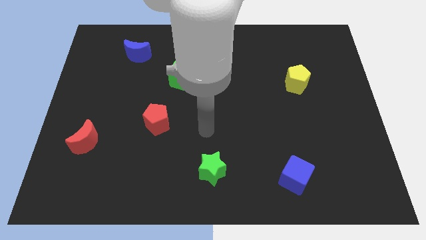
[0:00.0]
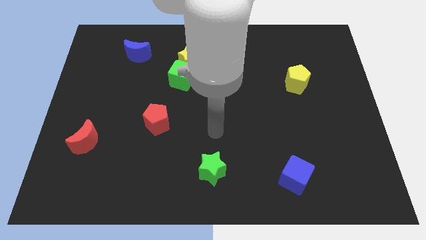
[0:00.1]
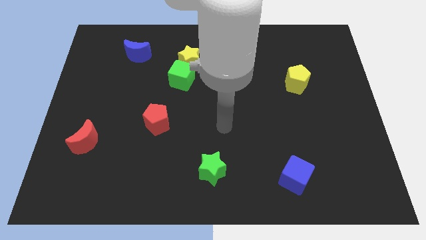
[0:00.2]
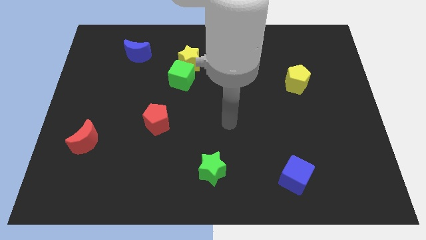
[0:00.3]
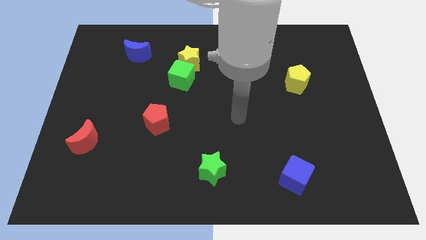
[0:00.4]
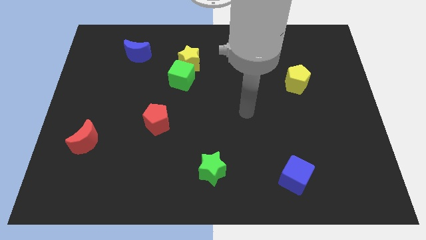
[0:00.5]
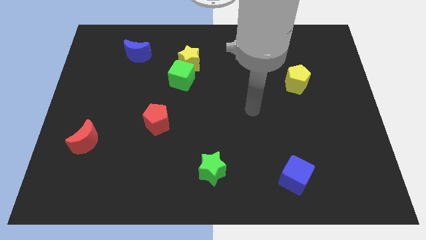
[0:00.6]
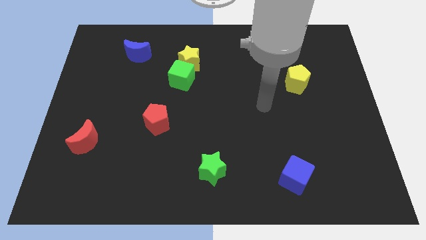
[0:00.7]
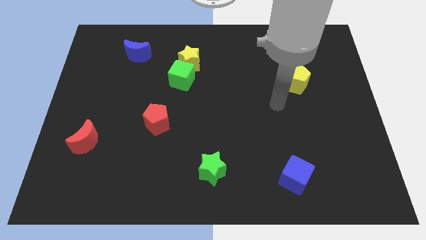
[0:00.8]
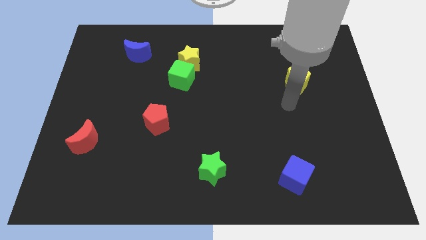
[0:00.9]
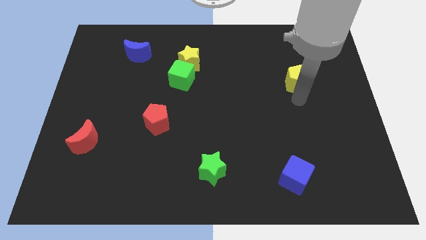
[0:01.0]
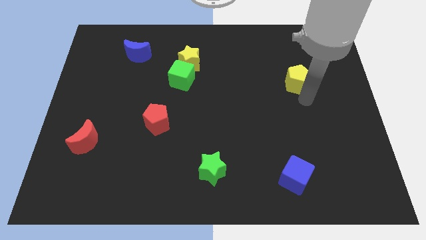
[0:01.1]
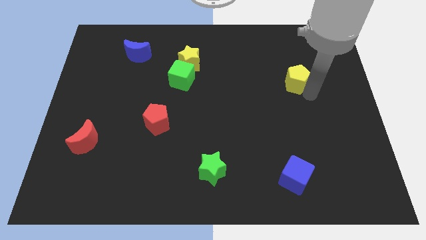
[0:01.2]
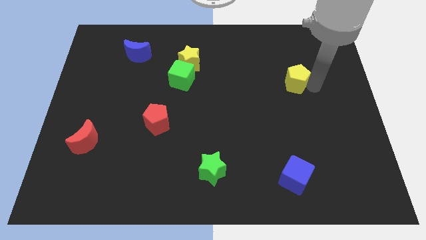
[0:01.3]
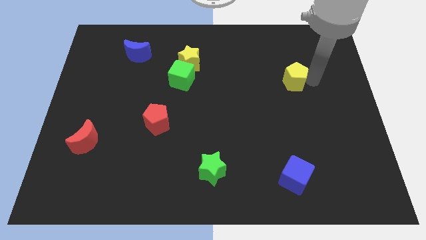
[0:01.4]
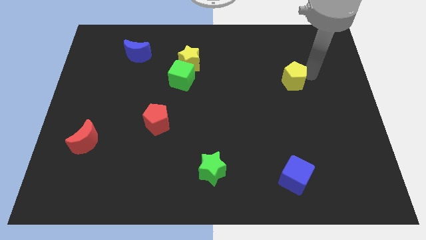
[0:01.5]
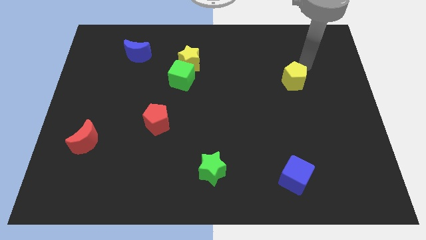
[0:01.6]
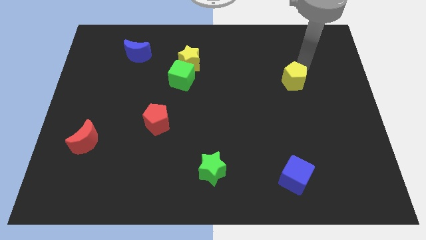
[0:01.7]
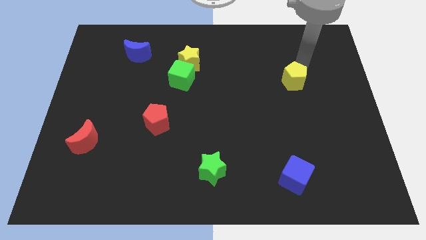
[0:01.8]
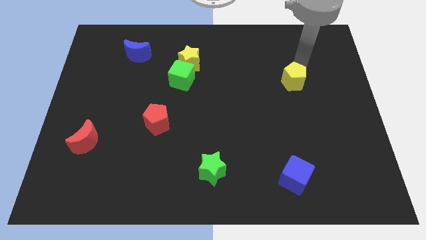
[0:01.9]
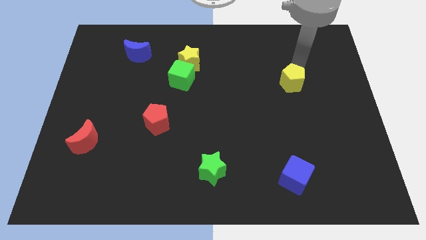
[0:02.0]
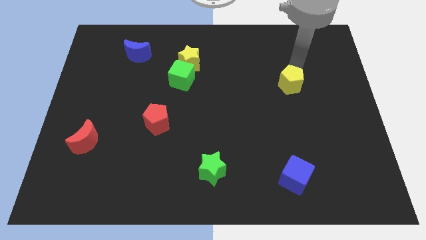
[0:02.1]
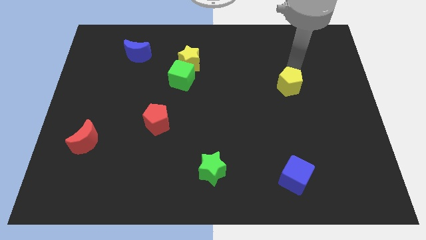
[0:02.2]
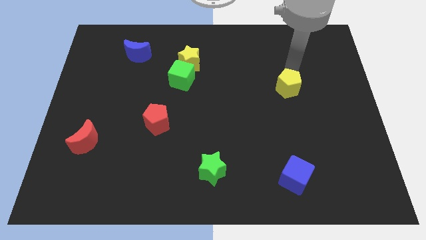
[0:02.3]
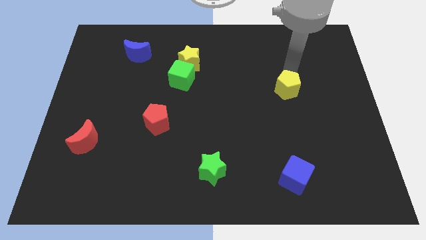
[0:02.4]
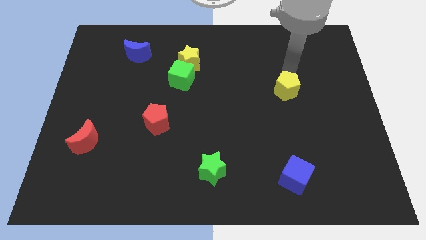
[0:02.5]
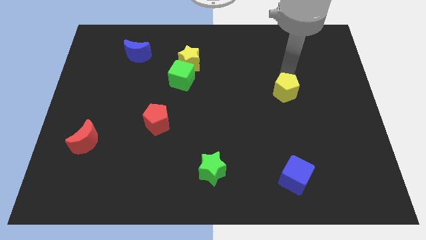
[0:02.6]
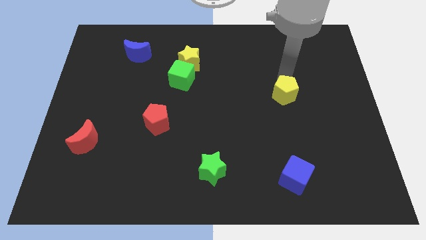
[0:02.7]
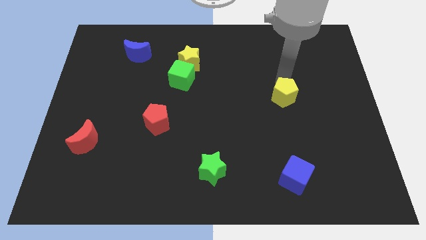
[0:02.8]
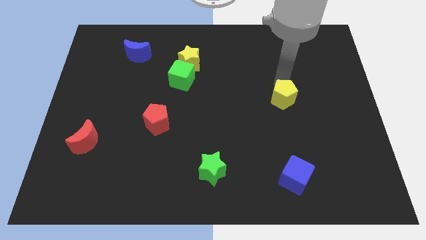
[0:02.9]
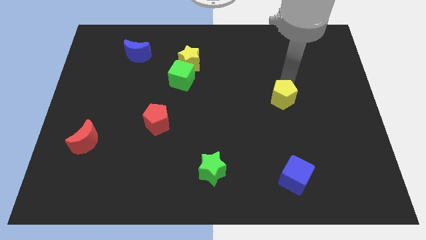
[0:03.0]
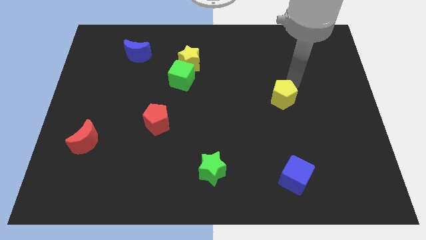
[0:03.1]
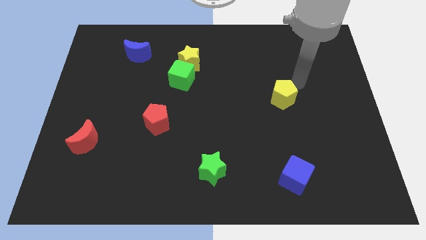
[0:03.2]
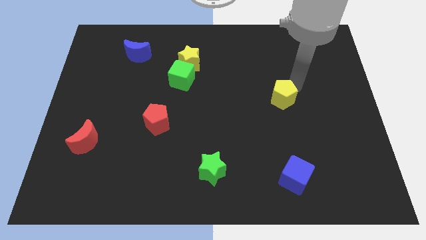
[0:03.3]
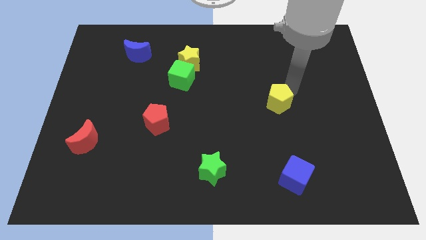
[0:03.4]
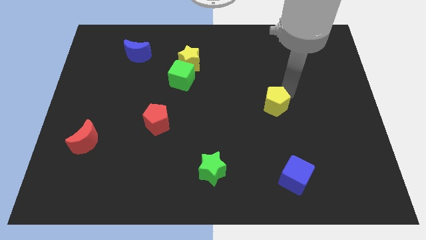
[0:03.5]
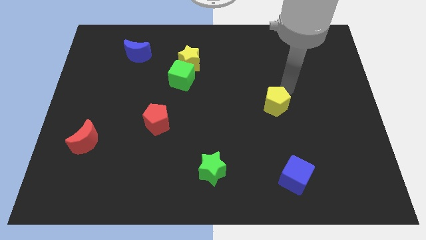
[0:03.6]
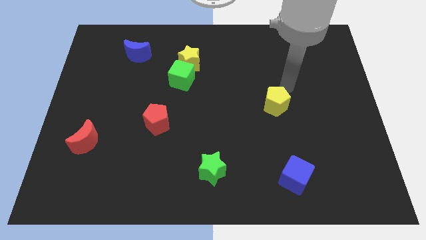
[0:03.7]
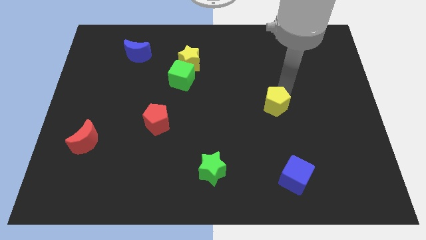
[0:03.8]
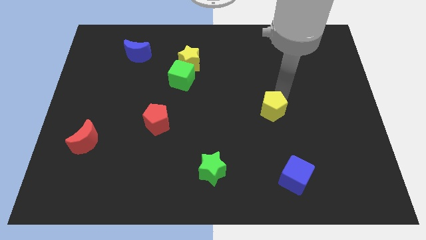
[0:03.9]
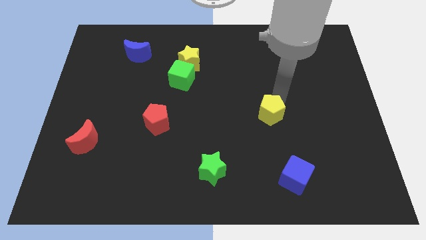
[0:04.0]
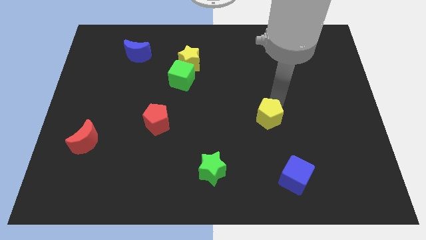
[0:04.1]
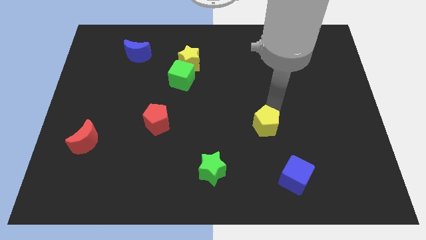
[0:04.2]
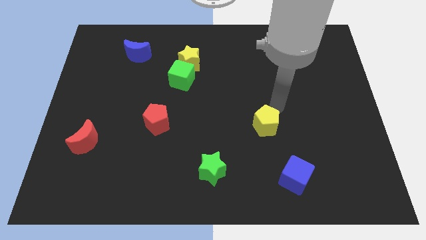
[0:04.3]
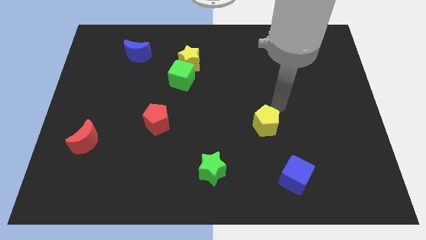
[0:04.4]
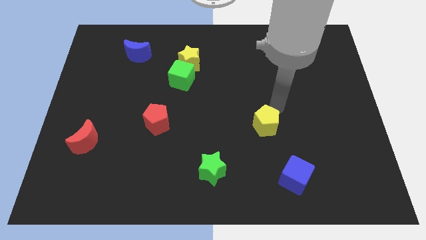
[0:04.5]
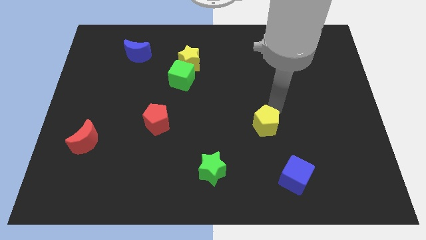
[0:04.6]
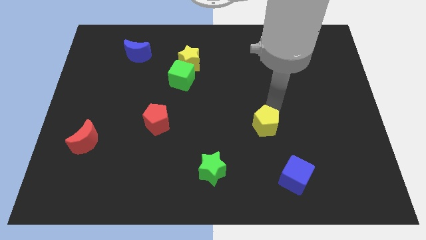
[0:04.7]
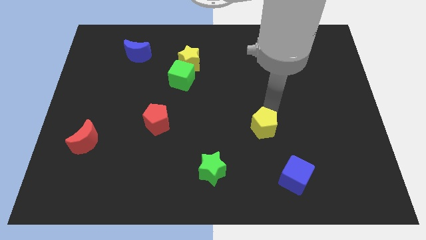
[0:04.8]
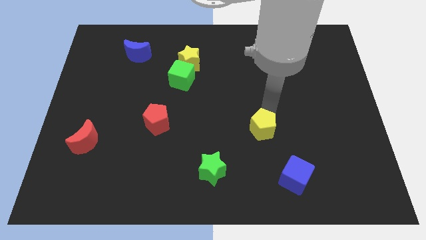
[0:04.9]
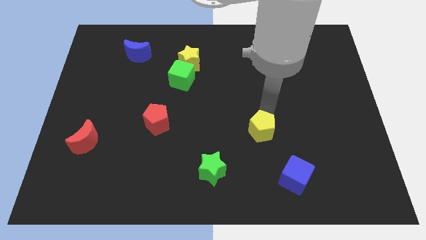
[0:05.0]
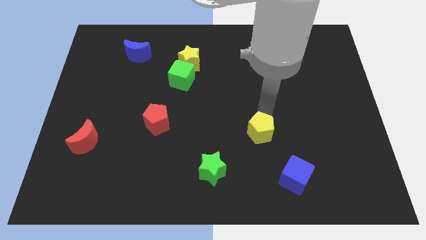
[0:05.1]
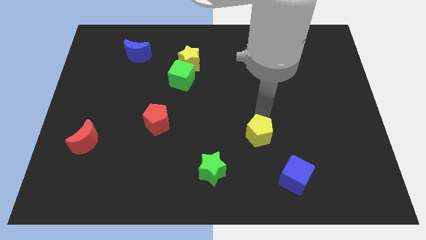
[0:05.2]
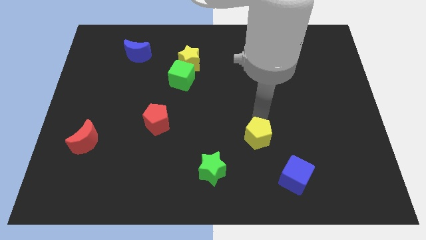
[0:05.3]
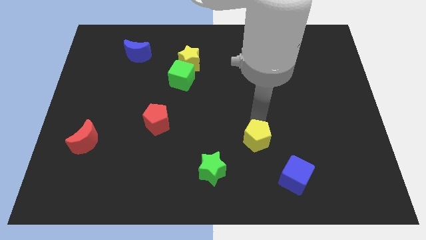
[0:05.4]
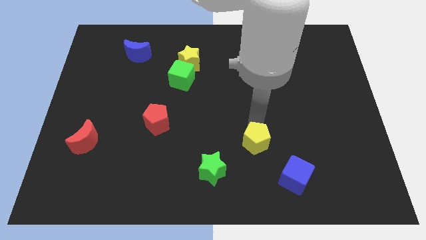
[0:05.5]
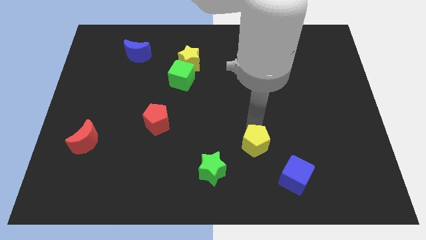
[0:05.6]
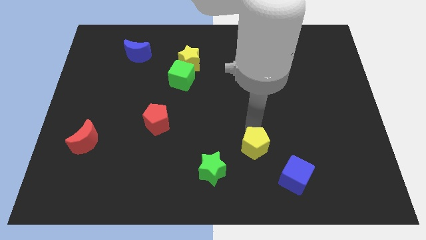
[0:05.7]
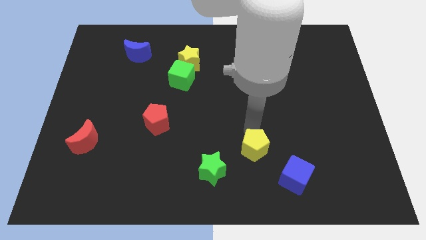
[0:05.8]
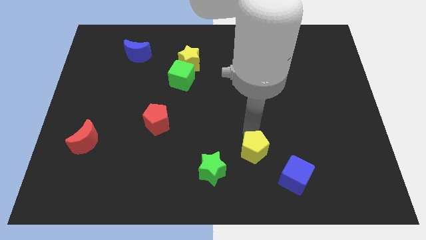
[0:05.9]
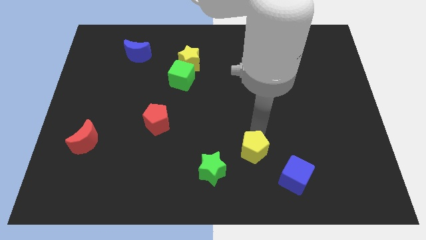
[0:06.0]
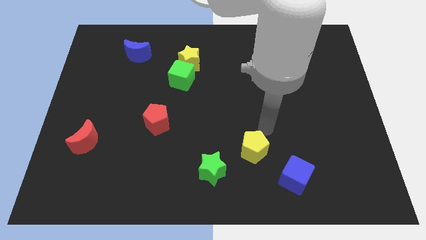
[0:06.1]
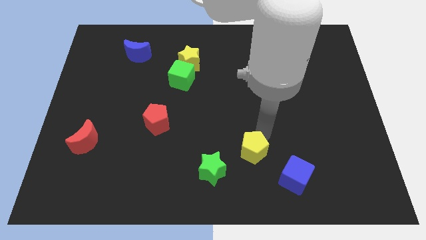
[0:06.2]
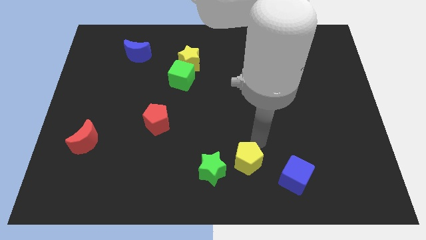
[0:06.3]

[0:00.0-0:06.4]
put the yellow pentagon to the bottom

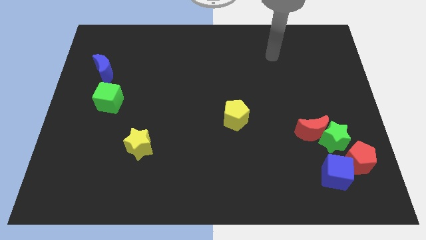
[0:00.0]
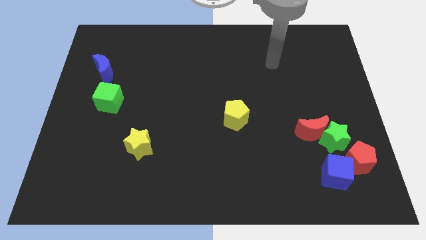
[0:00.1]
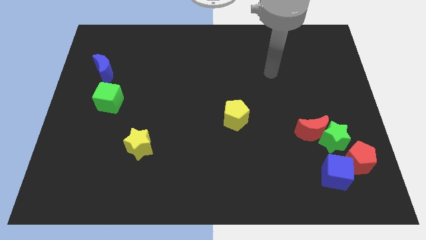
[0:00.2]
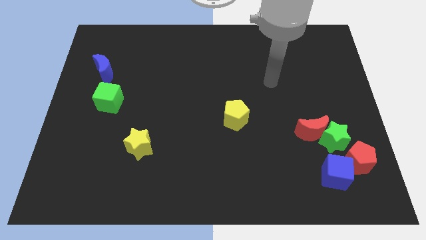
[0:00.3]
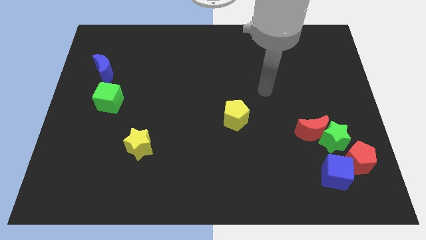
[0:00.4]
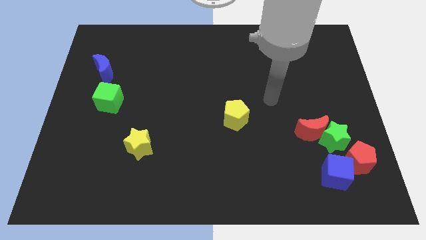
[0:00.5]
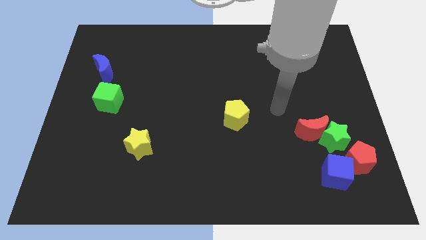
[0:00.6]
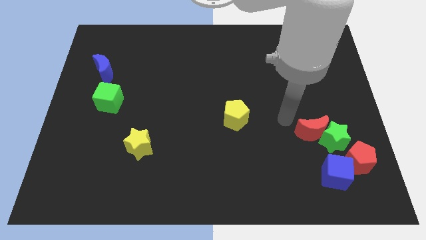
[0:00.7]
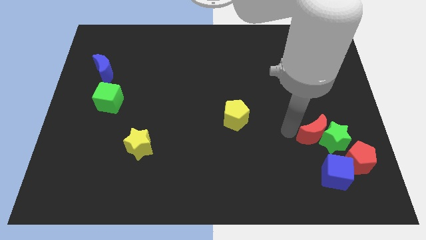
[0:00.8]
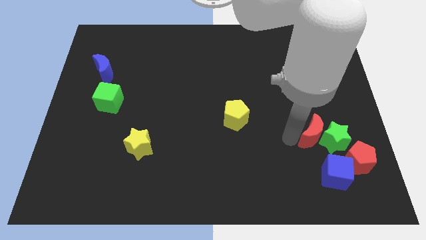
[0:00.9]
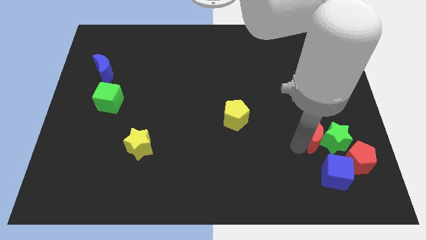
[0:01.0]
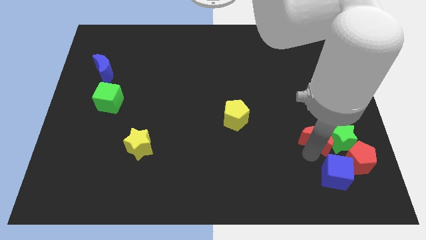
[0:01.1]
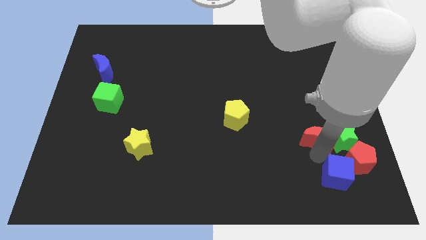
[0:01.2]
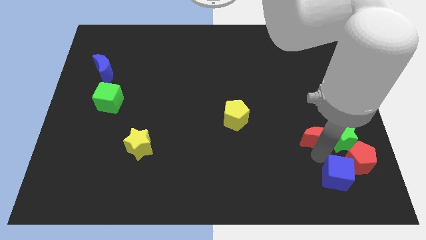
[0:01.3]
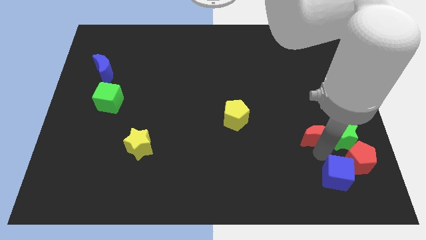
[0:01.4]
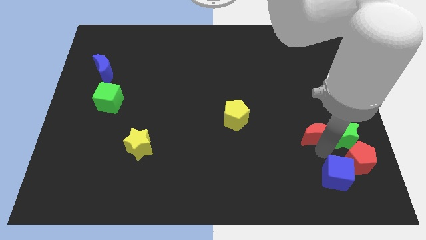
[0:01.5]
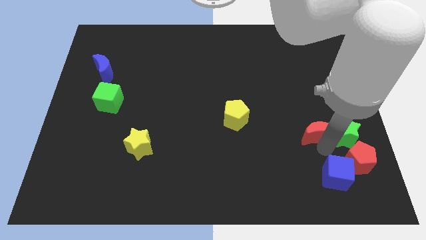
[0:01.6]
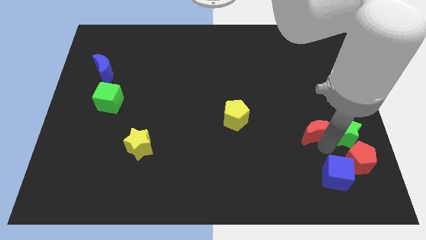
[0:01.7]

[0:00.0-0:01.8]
move the green star to the right side of the board
